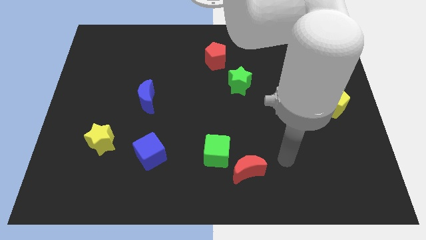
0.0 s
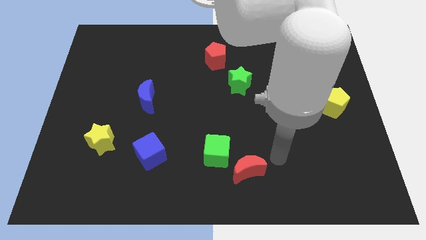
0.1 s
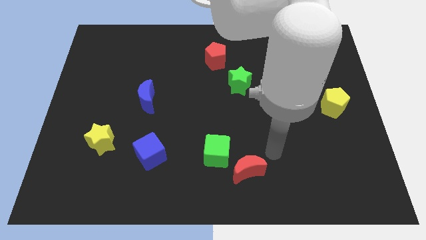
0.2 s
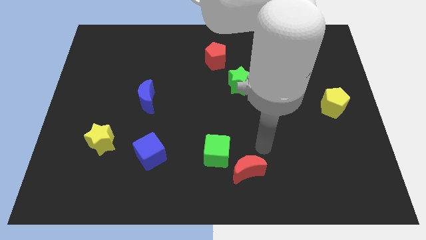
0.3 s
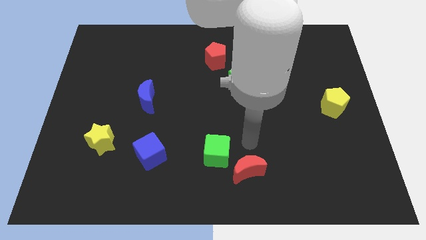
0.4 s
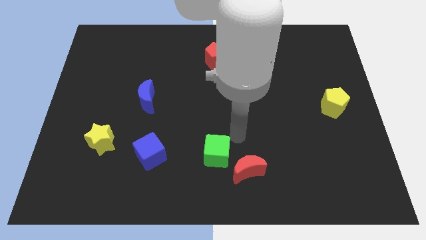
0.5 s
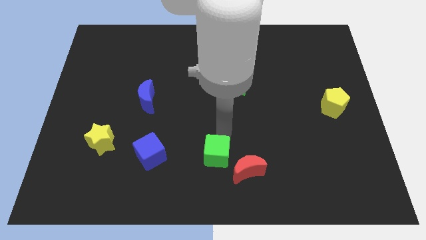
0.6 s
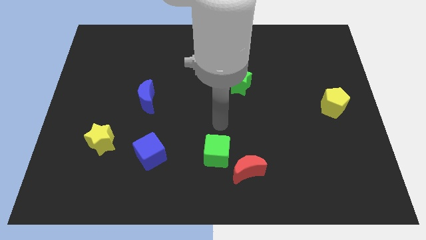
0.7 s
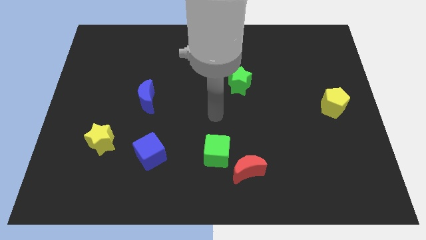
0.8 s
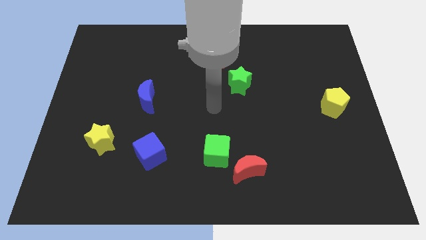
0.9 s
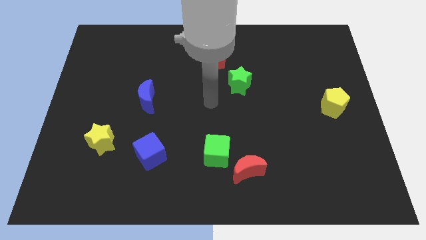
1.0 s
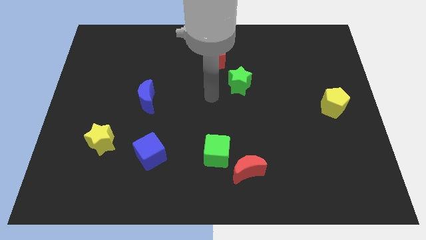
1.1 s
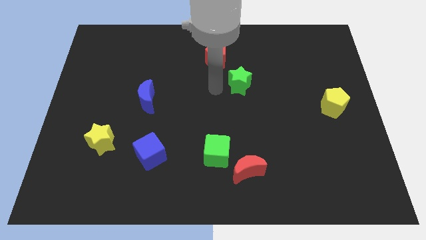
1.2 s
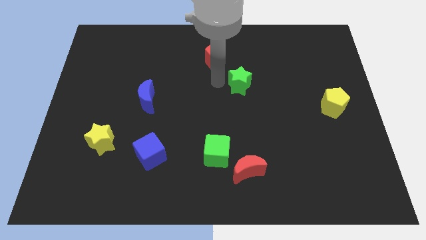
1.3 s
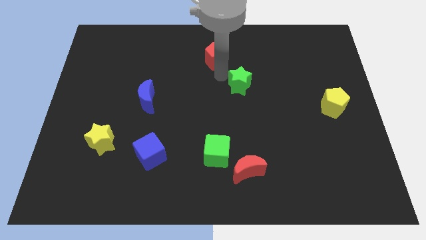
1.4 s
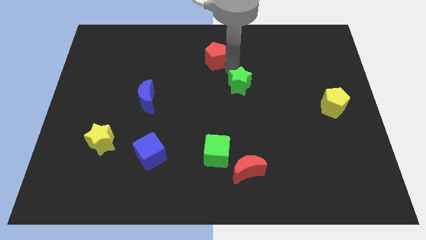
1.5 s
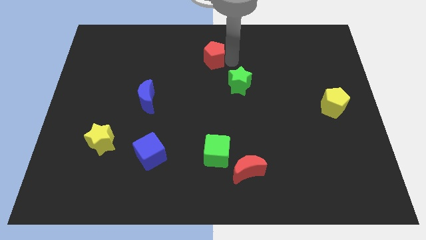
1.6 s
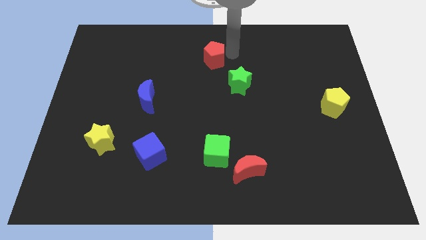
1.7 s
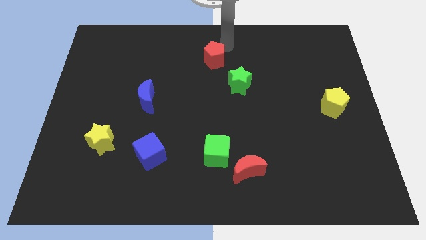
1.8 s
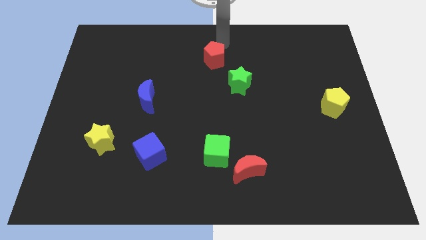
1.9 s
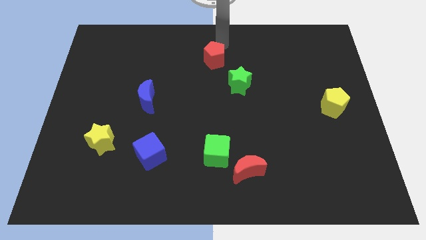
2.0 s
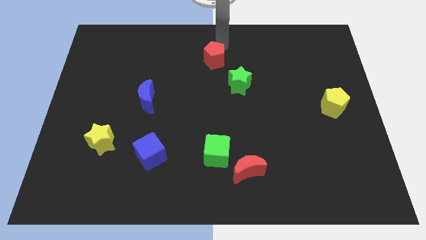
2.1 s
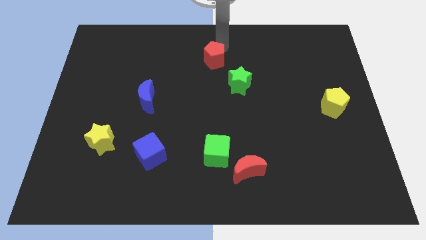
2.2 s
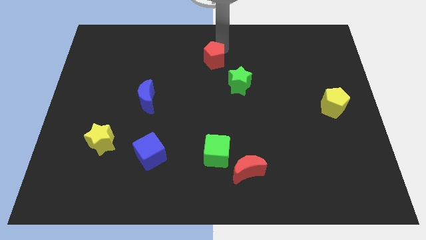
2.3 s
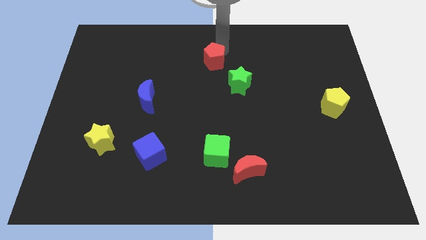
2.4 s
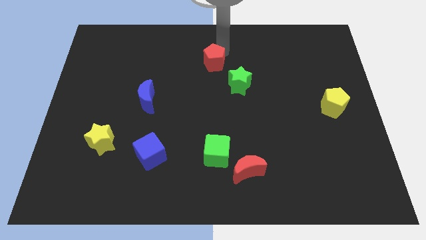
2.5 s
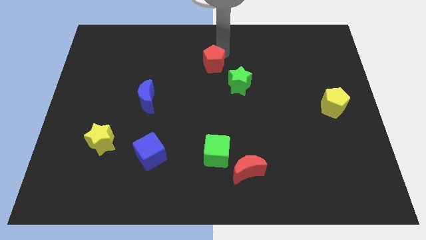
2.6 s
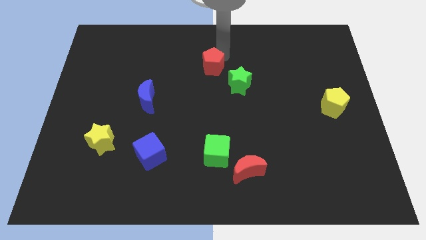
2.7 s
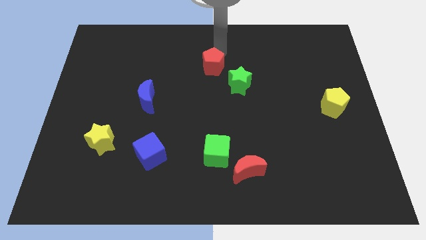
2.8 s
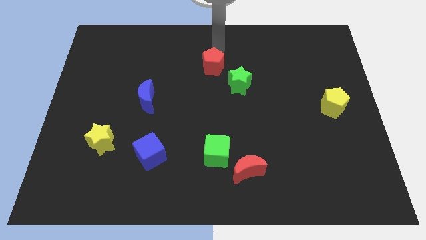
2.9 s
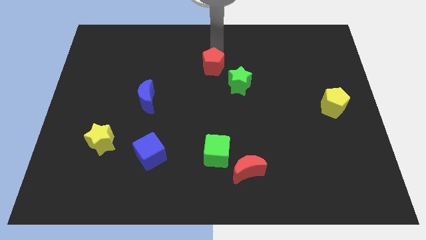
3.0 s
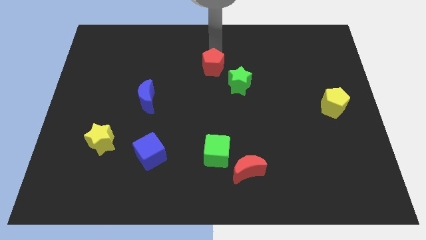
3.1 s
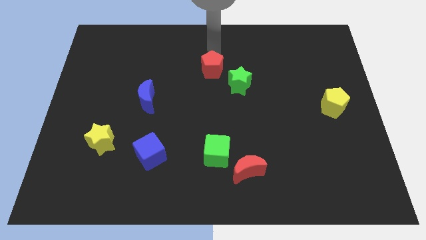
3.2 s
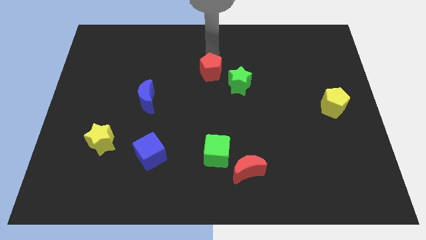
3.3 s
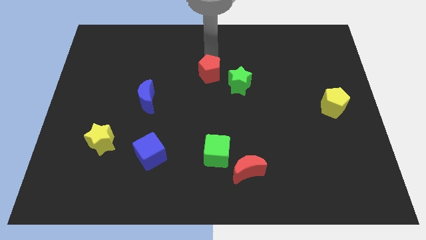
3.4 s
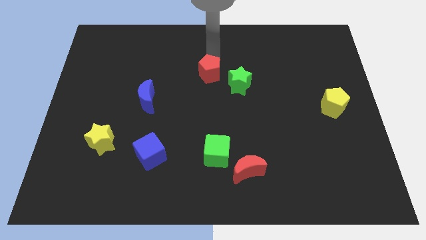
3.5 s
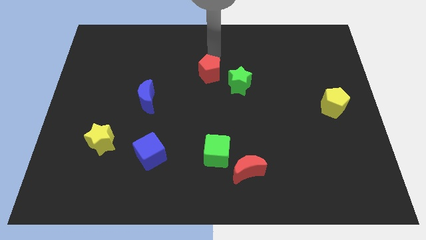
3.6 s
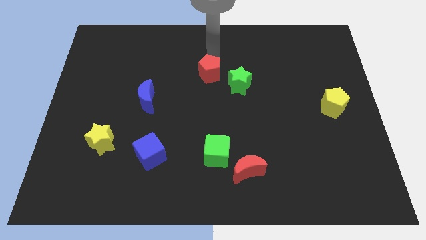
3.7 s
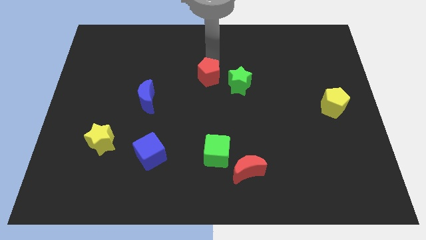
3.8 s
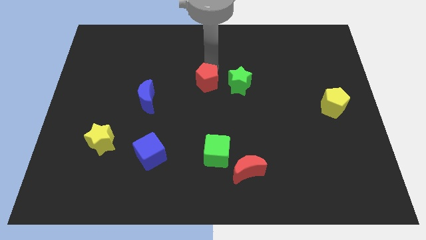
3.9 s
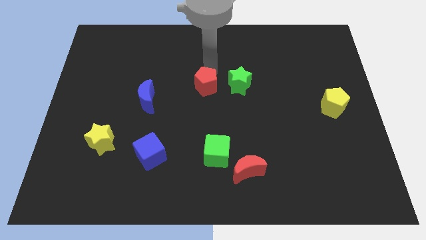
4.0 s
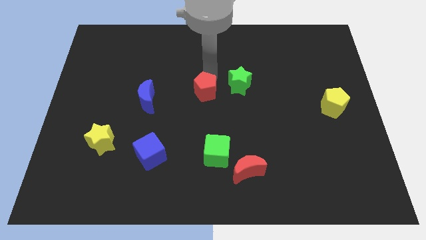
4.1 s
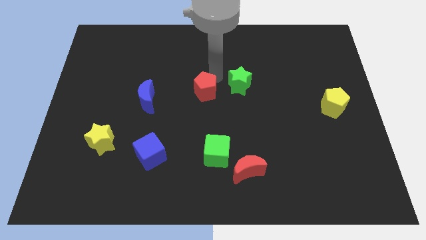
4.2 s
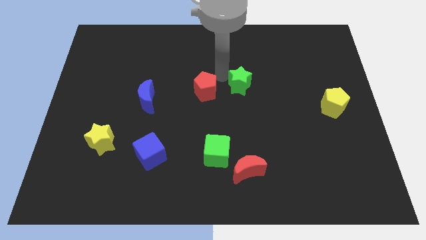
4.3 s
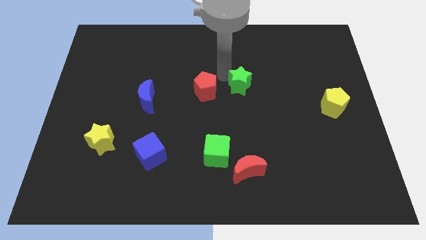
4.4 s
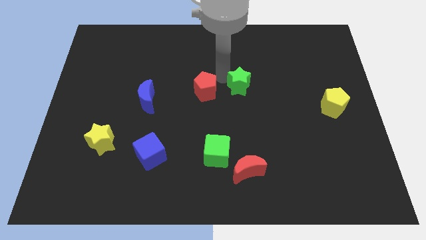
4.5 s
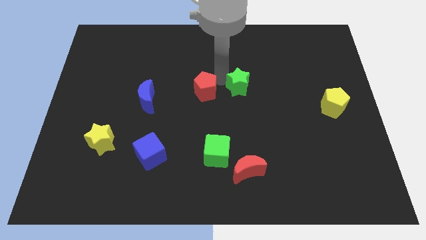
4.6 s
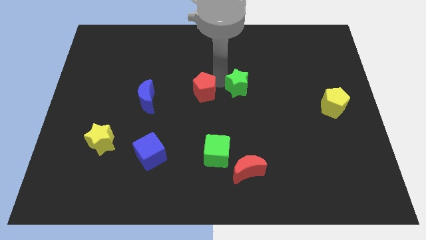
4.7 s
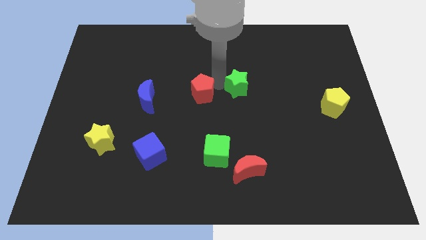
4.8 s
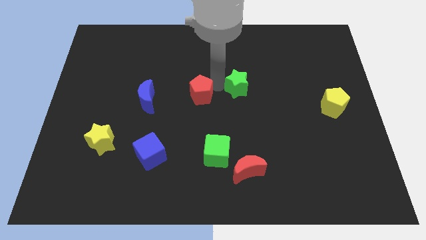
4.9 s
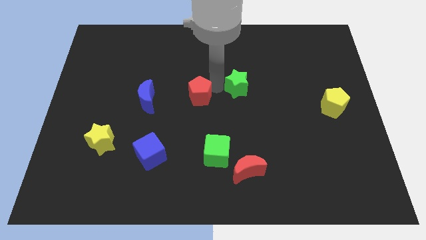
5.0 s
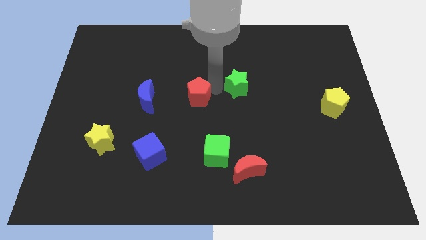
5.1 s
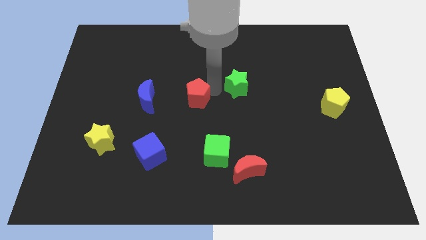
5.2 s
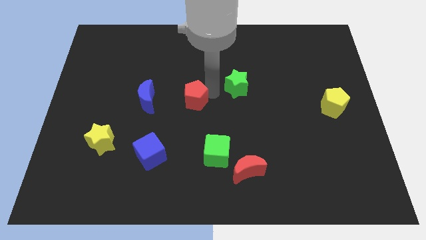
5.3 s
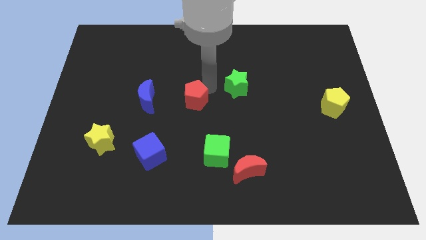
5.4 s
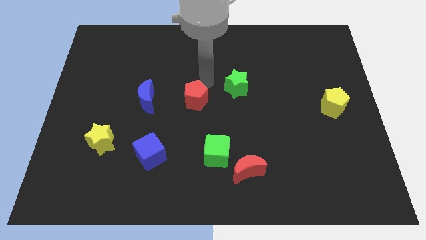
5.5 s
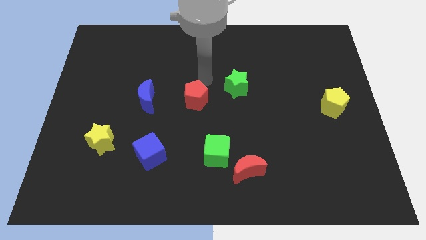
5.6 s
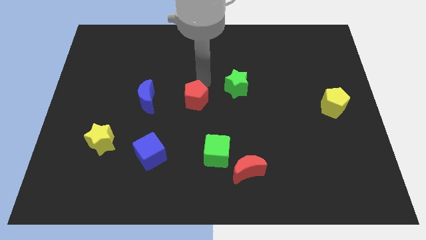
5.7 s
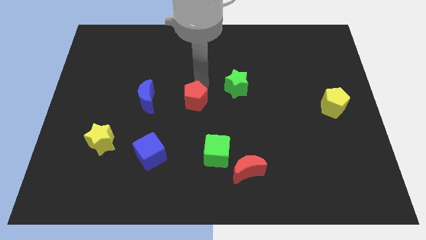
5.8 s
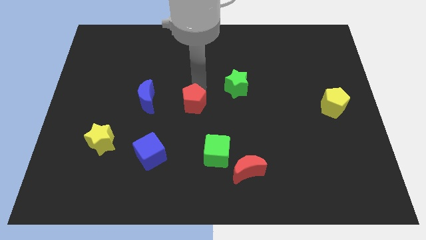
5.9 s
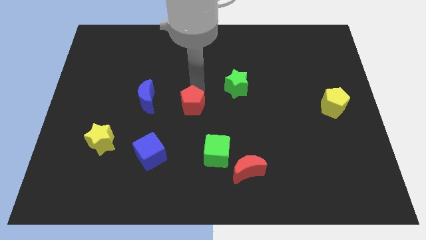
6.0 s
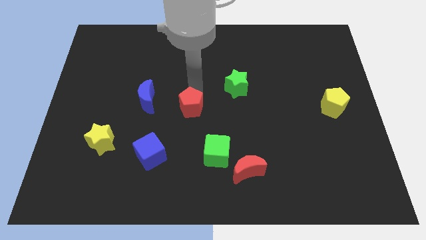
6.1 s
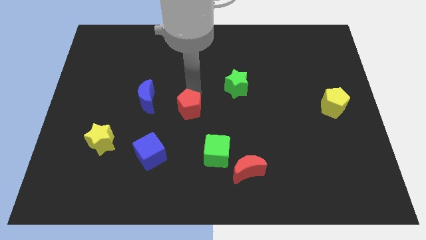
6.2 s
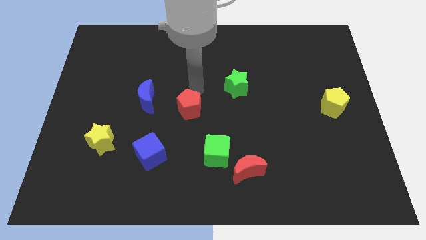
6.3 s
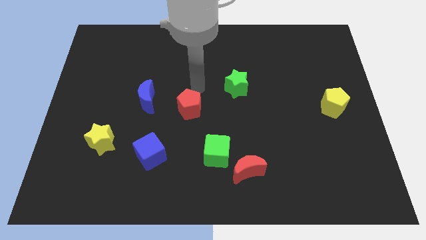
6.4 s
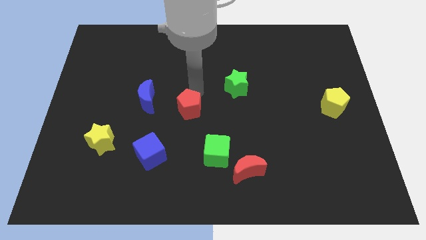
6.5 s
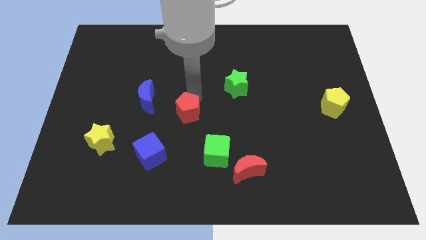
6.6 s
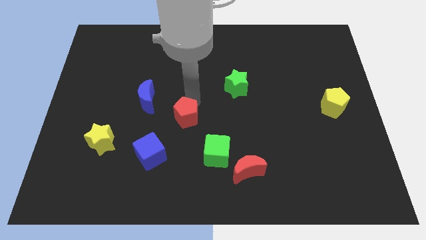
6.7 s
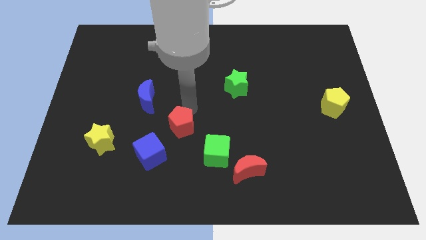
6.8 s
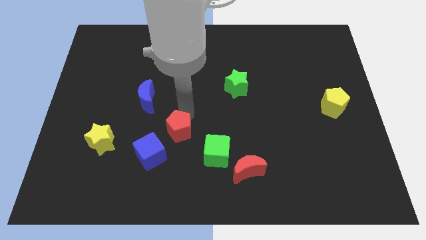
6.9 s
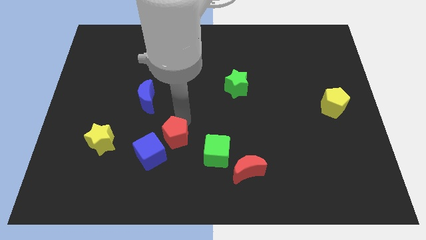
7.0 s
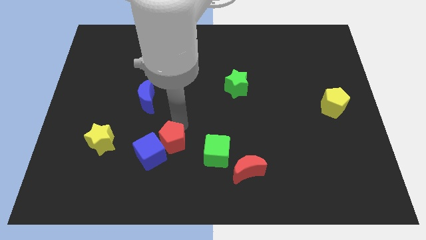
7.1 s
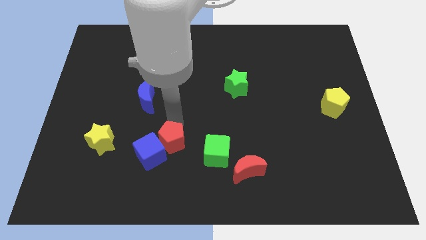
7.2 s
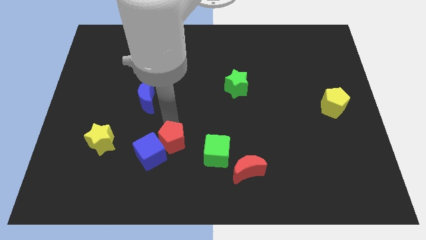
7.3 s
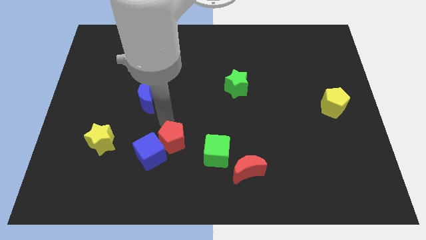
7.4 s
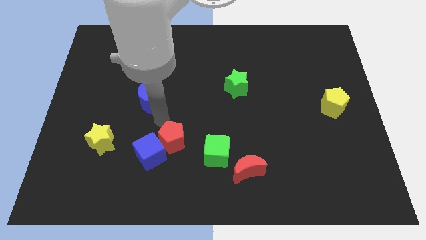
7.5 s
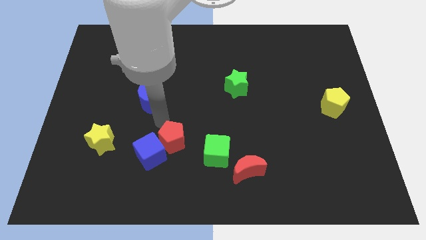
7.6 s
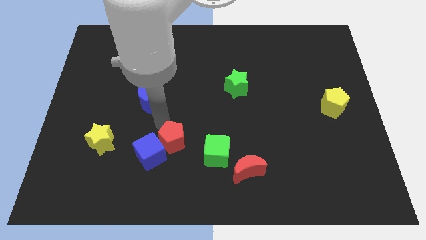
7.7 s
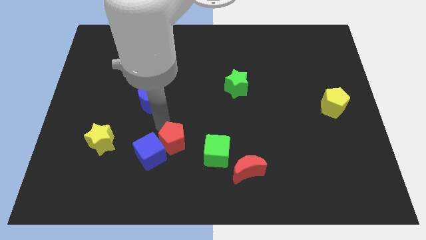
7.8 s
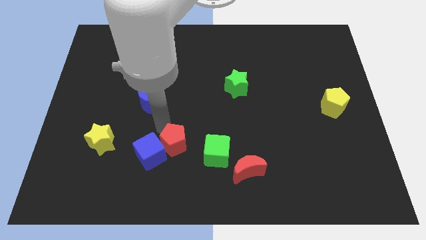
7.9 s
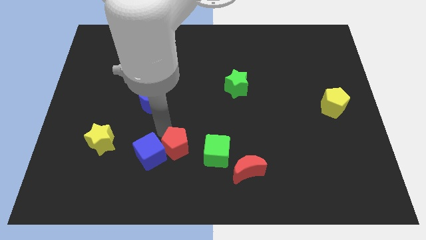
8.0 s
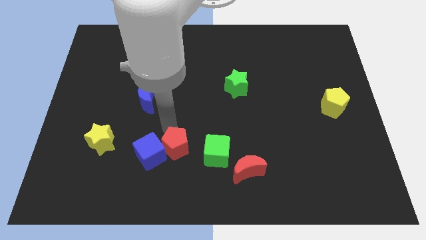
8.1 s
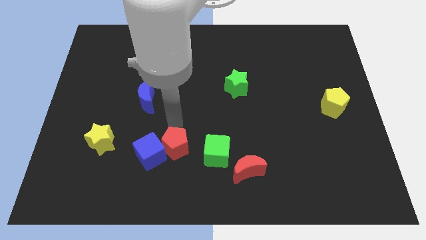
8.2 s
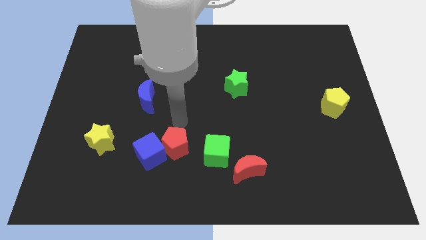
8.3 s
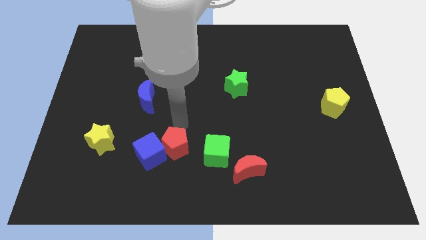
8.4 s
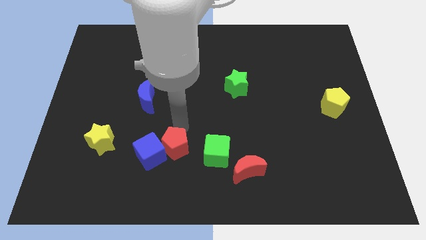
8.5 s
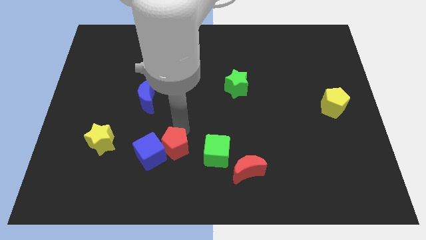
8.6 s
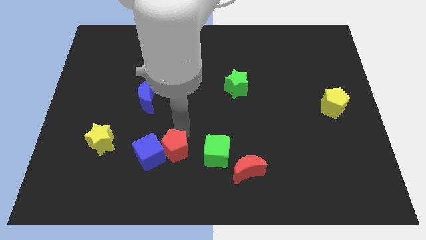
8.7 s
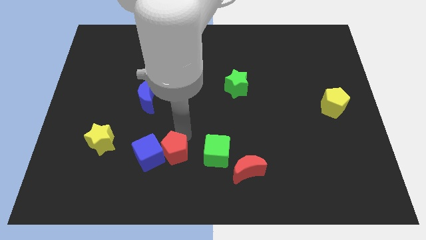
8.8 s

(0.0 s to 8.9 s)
put the red pentagon diagonally down and to the right of the blue cube
